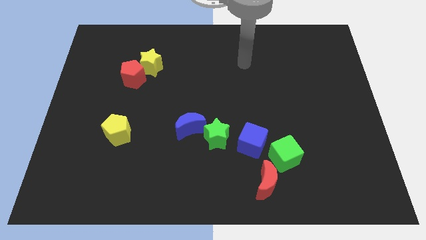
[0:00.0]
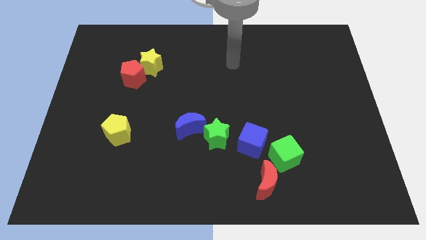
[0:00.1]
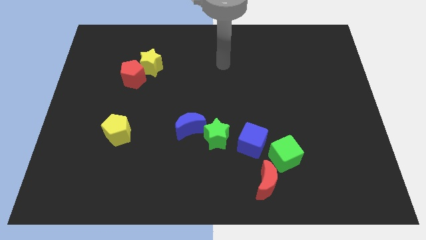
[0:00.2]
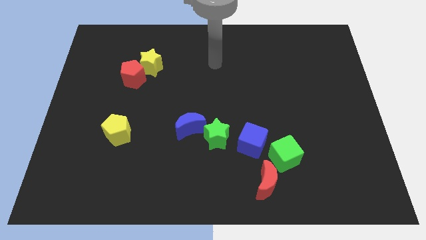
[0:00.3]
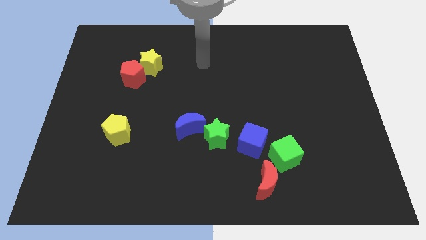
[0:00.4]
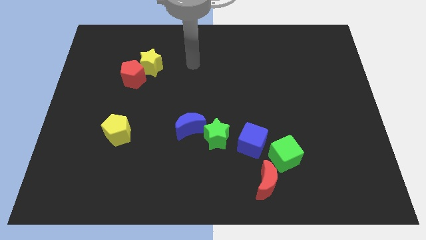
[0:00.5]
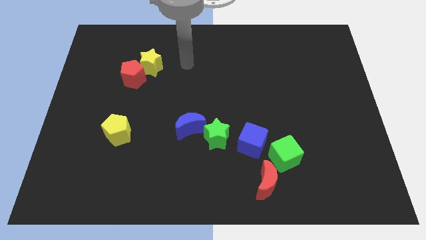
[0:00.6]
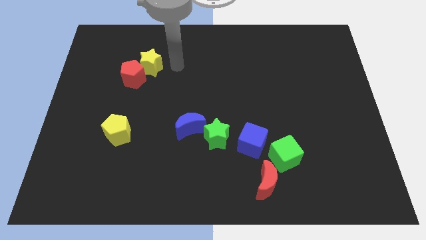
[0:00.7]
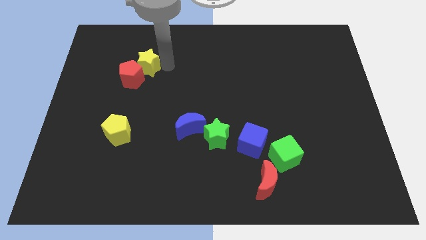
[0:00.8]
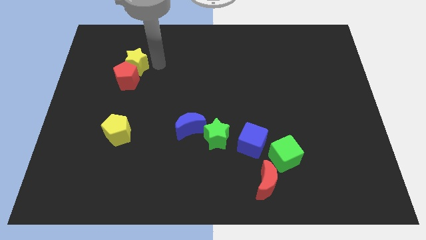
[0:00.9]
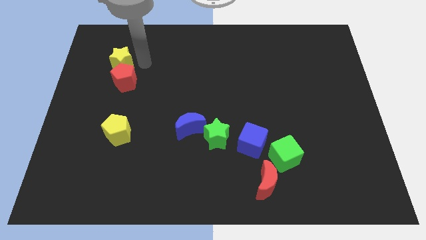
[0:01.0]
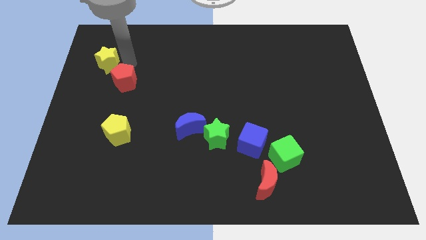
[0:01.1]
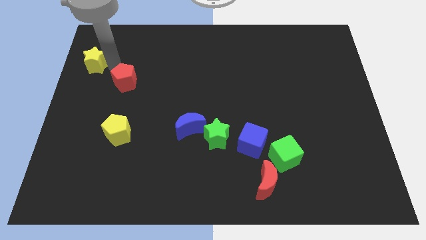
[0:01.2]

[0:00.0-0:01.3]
pull the red pentagon apart from the yellow star

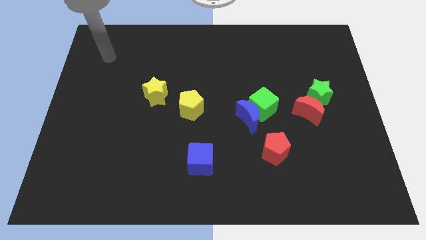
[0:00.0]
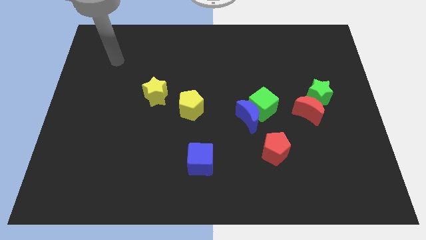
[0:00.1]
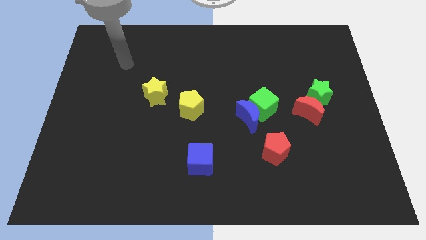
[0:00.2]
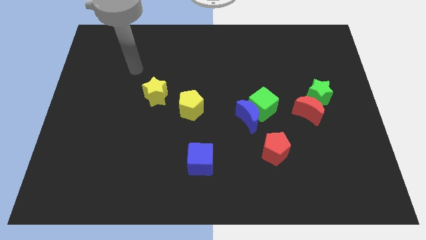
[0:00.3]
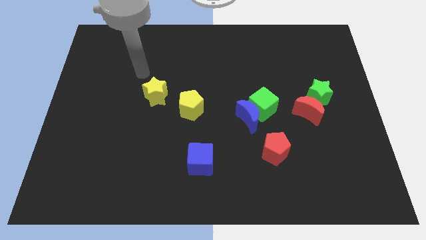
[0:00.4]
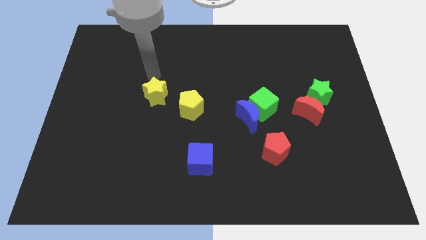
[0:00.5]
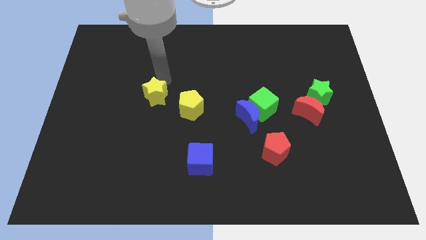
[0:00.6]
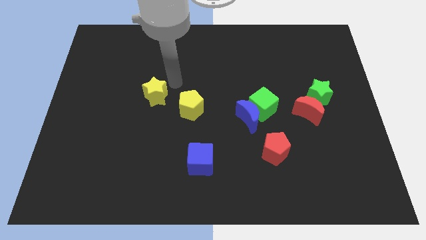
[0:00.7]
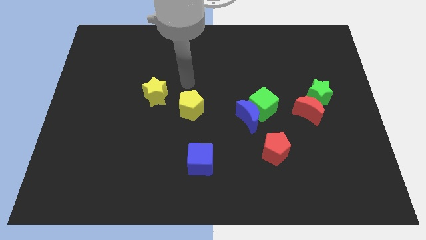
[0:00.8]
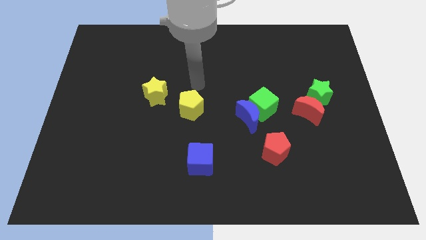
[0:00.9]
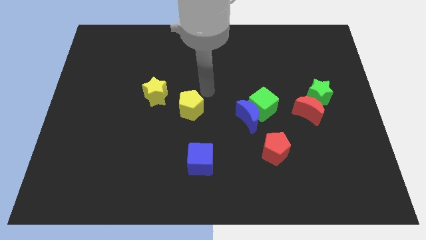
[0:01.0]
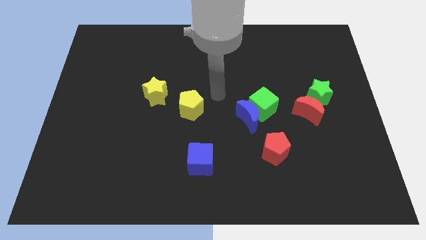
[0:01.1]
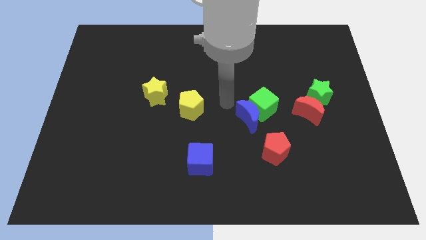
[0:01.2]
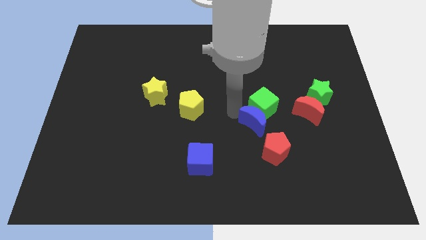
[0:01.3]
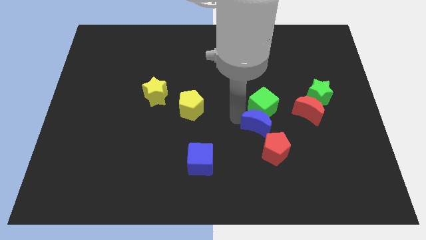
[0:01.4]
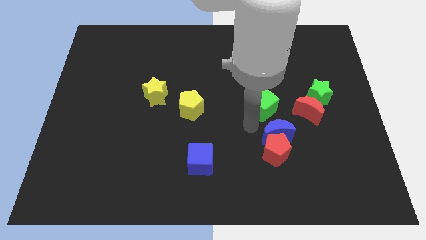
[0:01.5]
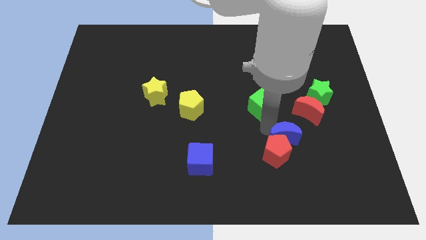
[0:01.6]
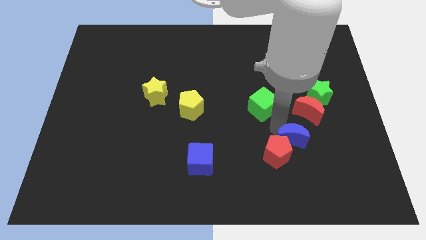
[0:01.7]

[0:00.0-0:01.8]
move the green cube away from the blue moon

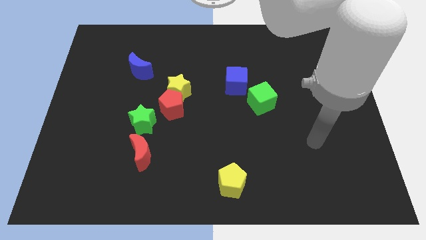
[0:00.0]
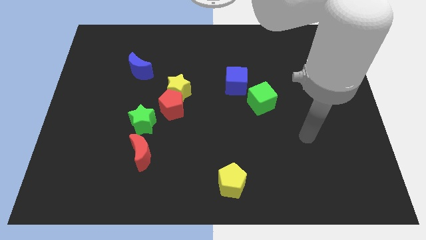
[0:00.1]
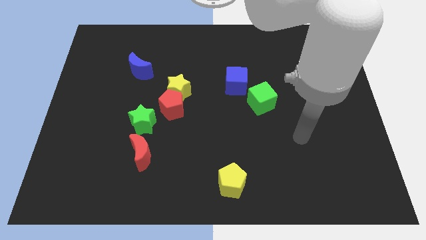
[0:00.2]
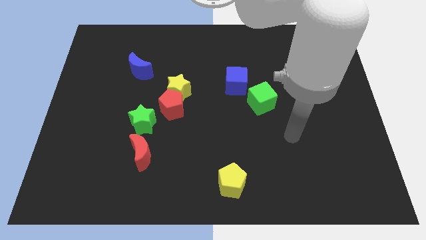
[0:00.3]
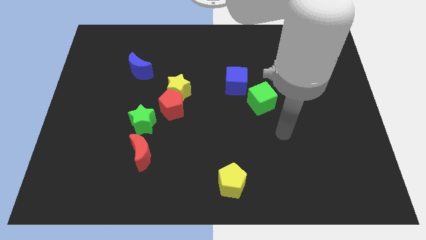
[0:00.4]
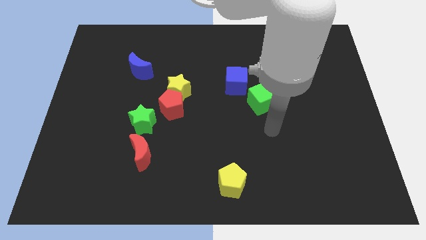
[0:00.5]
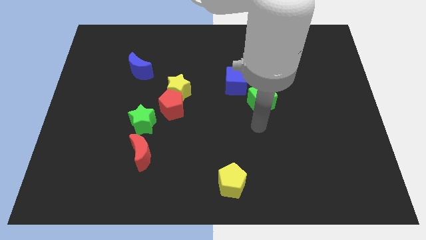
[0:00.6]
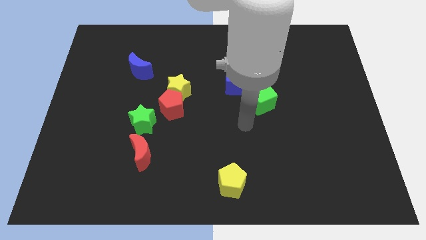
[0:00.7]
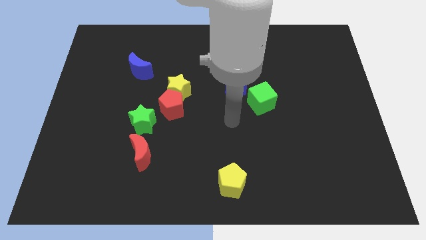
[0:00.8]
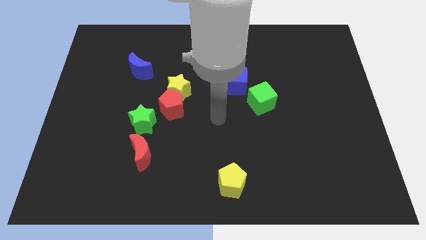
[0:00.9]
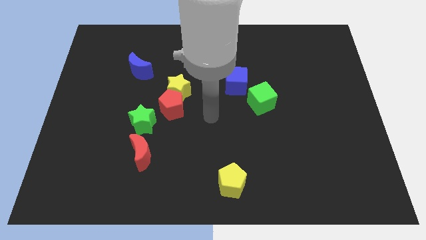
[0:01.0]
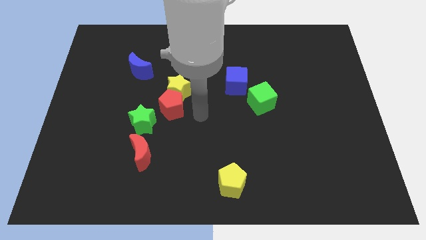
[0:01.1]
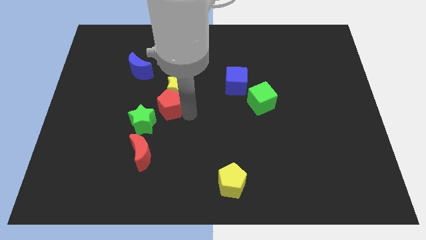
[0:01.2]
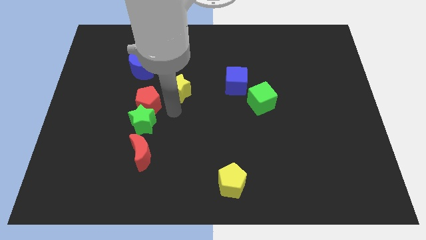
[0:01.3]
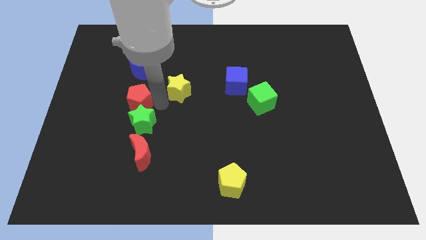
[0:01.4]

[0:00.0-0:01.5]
pull the yellow star apart from the red pentagon
